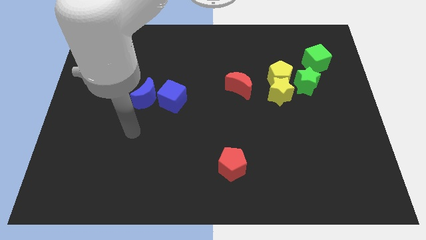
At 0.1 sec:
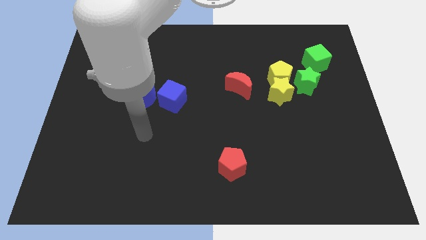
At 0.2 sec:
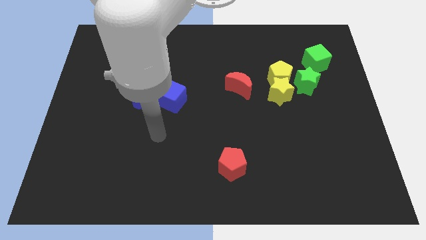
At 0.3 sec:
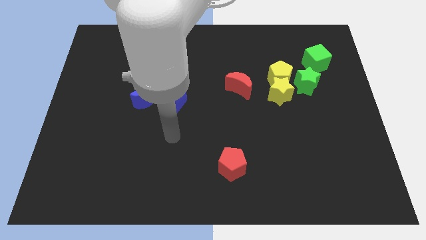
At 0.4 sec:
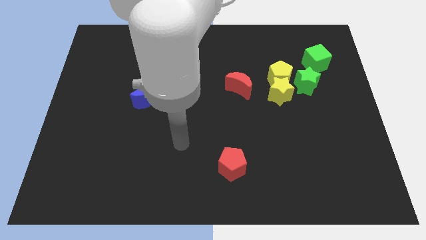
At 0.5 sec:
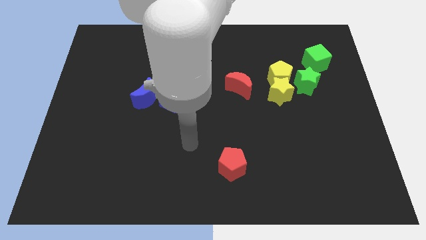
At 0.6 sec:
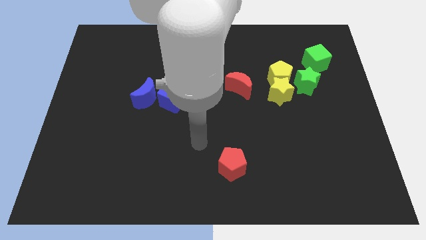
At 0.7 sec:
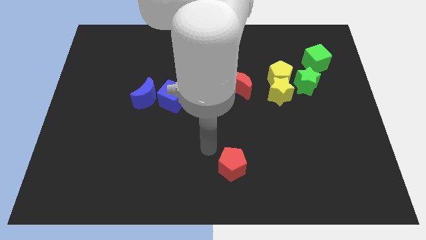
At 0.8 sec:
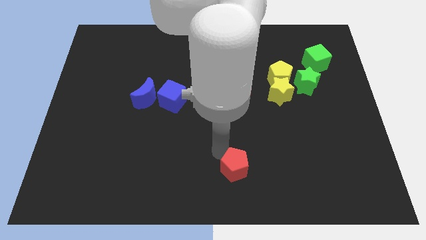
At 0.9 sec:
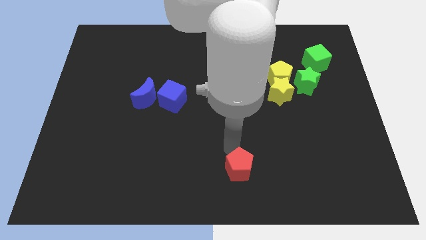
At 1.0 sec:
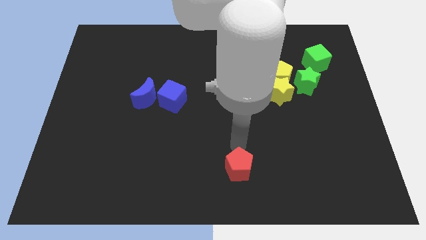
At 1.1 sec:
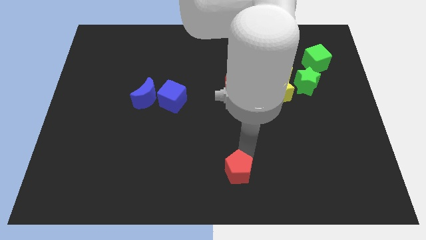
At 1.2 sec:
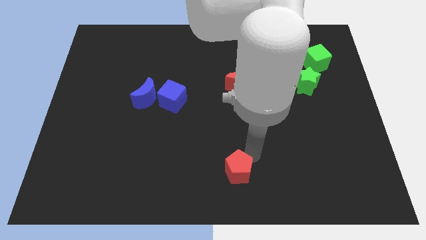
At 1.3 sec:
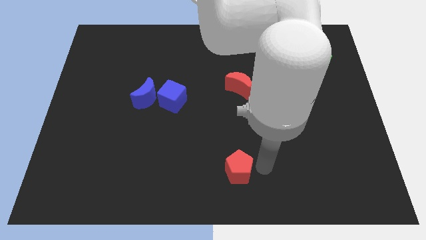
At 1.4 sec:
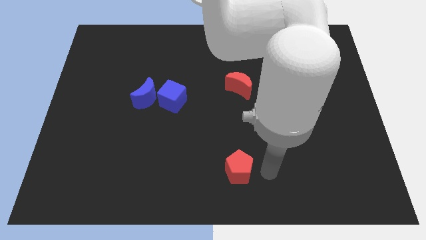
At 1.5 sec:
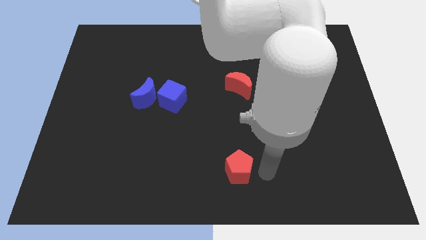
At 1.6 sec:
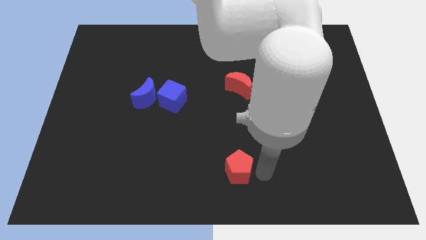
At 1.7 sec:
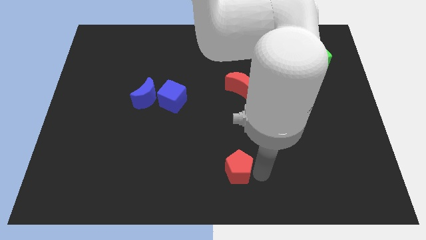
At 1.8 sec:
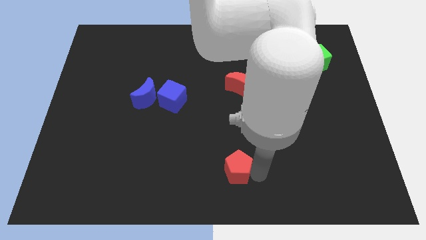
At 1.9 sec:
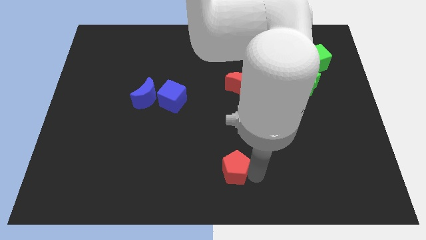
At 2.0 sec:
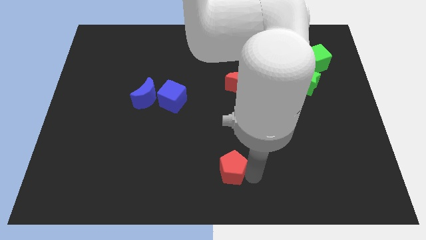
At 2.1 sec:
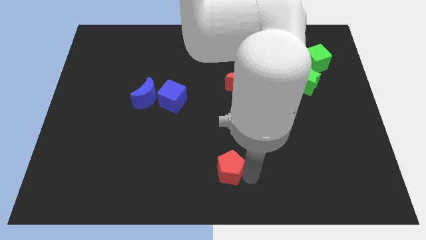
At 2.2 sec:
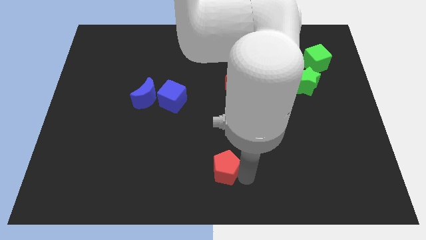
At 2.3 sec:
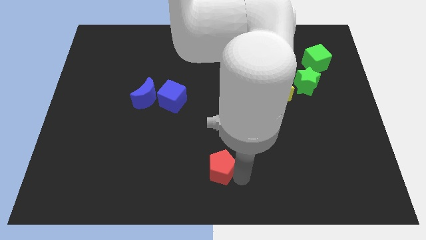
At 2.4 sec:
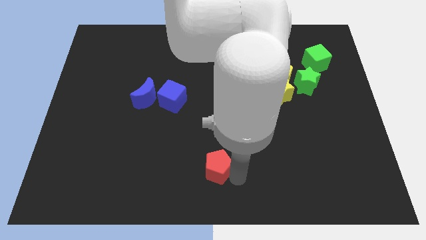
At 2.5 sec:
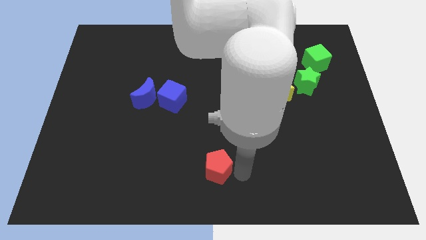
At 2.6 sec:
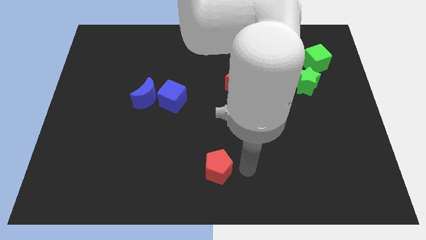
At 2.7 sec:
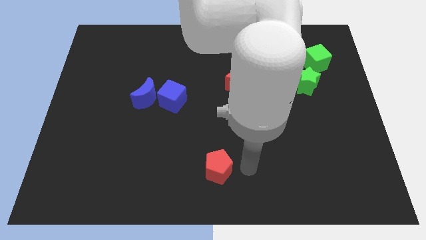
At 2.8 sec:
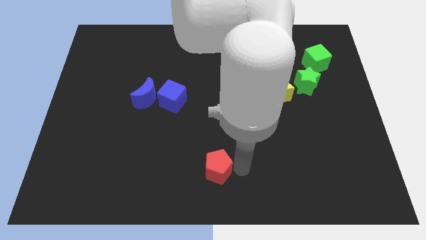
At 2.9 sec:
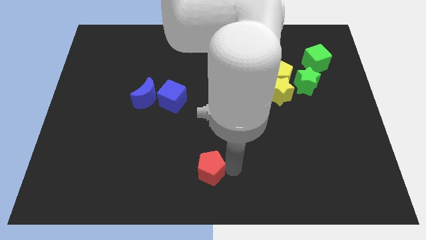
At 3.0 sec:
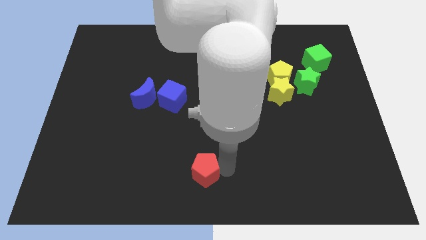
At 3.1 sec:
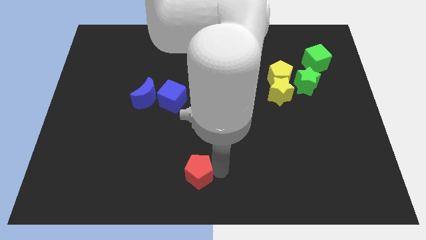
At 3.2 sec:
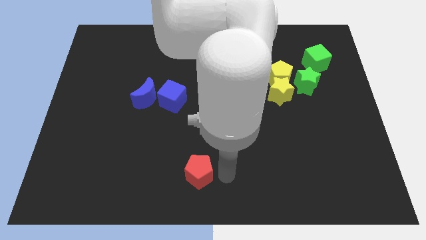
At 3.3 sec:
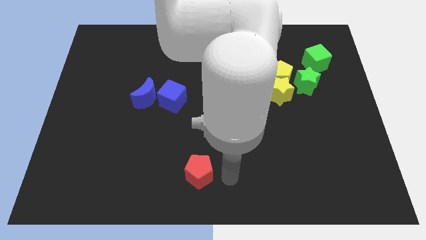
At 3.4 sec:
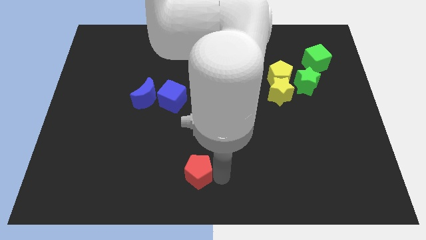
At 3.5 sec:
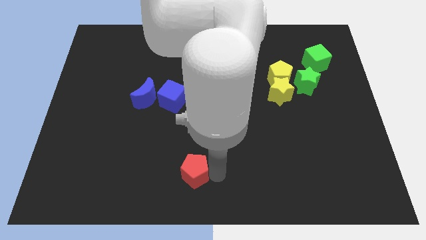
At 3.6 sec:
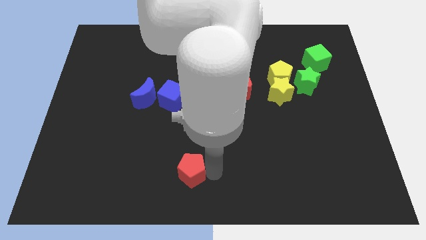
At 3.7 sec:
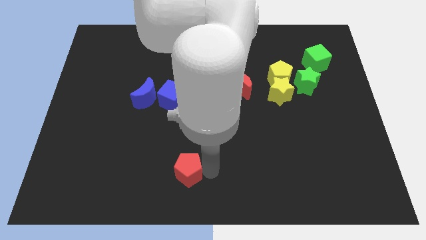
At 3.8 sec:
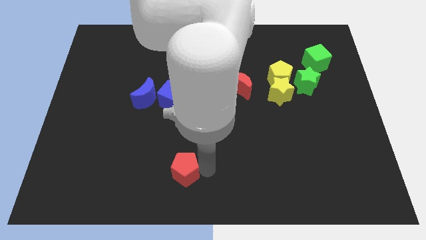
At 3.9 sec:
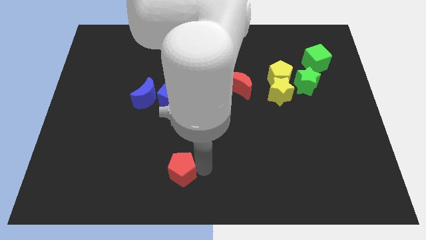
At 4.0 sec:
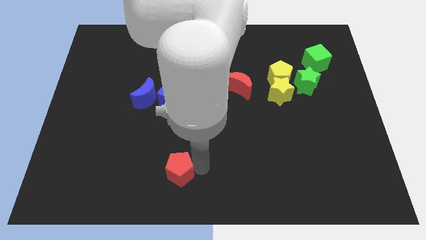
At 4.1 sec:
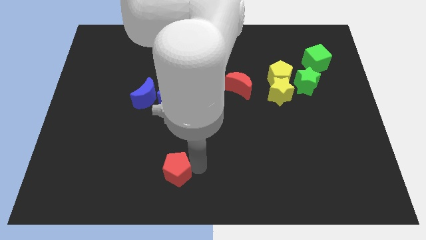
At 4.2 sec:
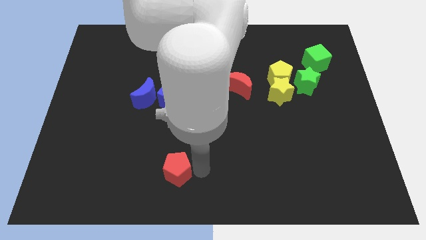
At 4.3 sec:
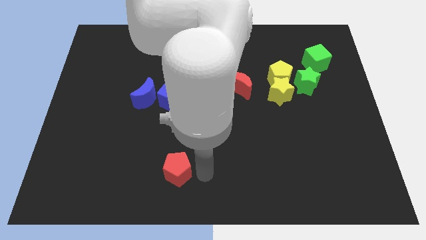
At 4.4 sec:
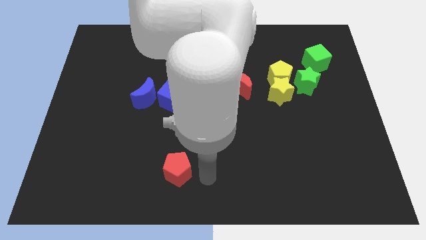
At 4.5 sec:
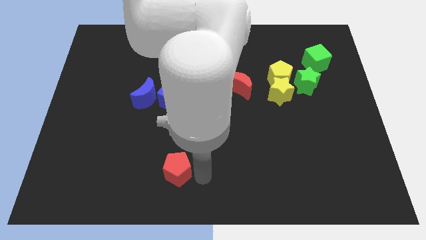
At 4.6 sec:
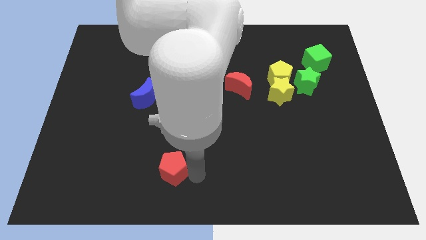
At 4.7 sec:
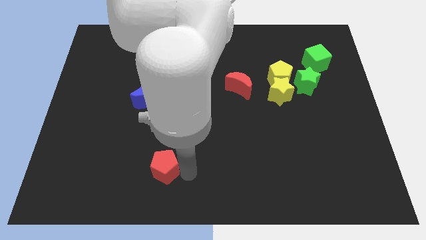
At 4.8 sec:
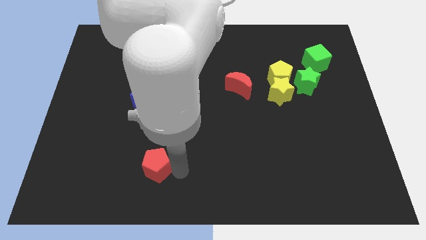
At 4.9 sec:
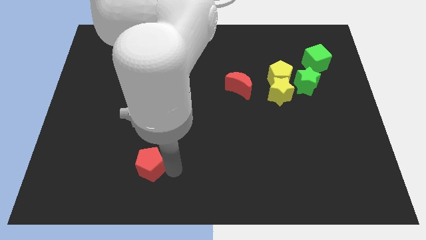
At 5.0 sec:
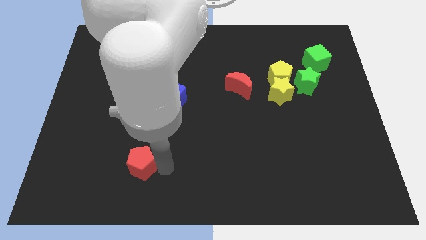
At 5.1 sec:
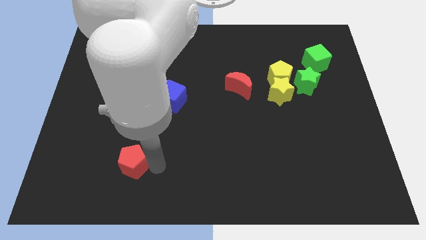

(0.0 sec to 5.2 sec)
slide the red pentagon left

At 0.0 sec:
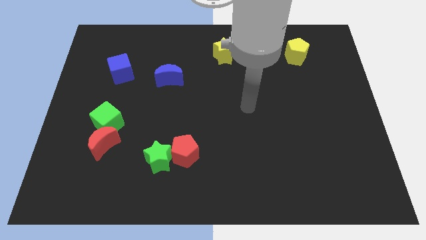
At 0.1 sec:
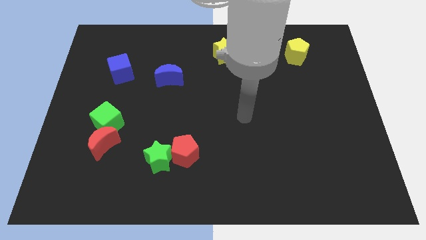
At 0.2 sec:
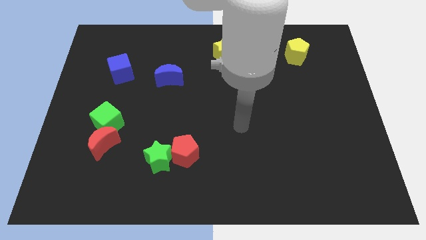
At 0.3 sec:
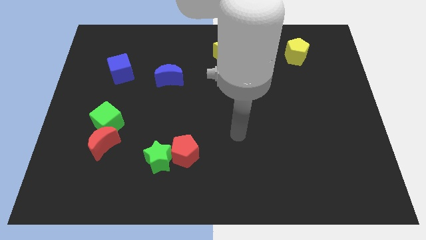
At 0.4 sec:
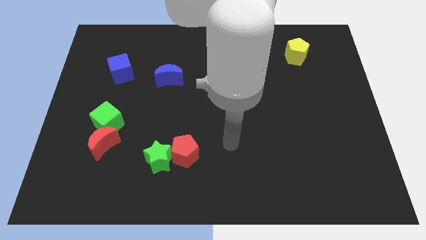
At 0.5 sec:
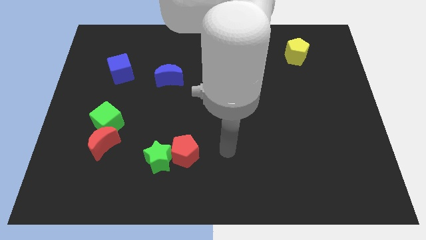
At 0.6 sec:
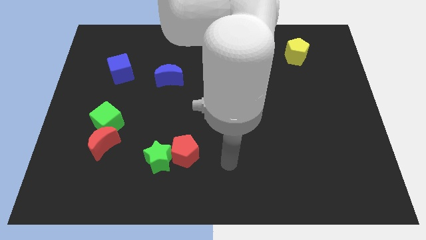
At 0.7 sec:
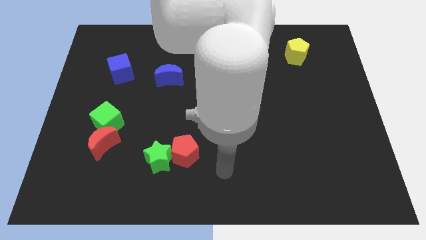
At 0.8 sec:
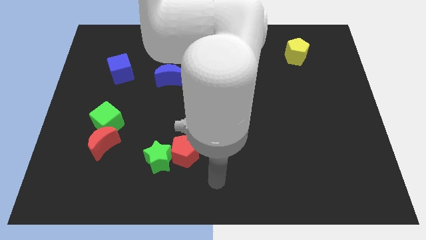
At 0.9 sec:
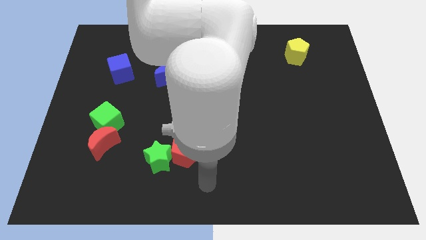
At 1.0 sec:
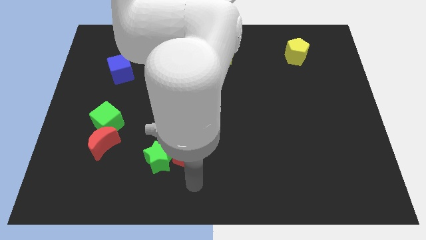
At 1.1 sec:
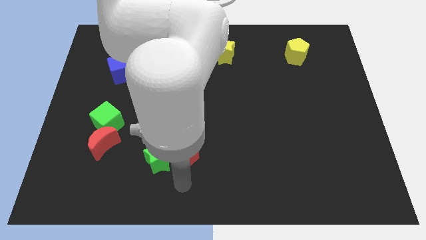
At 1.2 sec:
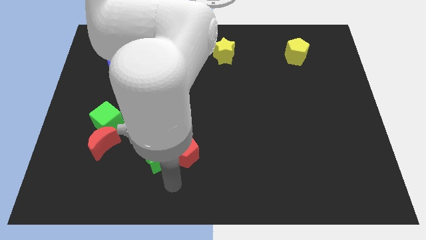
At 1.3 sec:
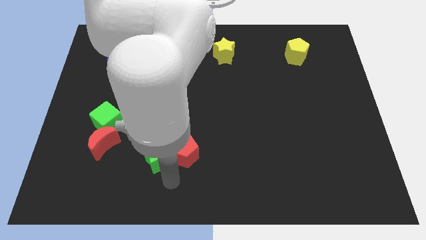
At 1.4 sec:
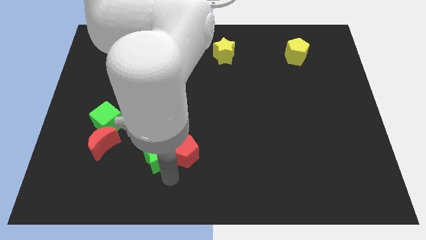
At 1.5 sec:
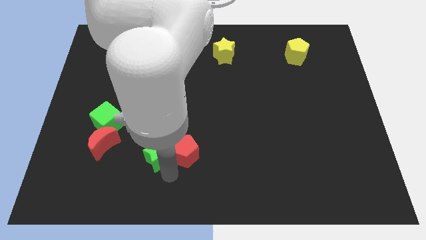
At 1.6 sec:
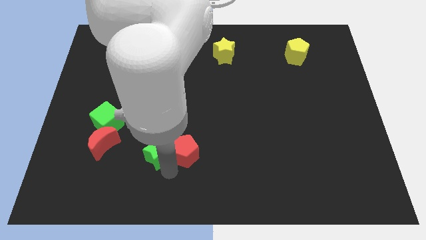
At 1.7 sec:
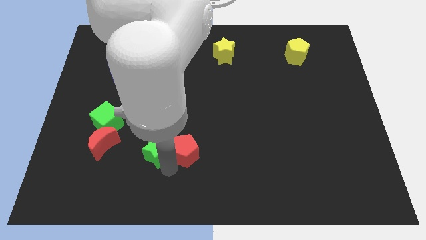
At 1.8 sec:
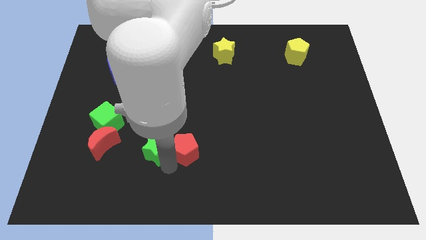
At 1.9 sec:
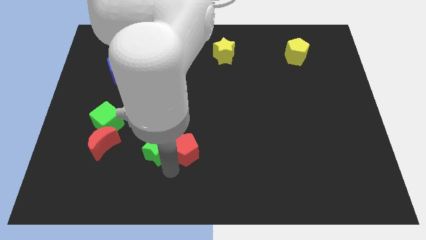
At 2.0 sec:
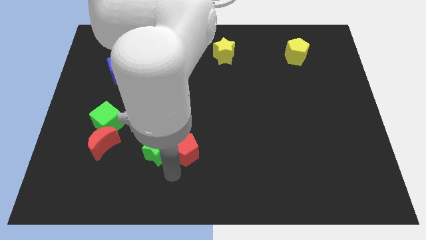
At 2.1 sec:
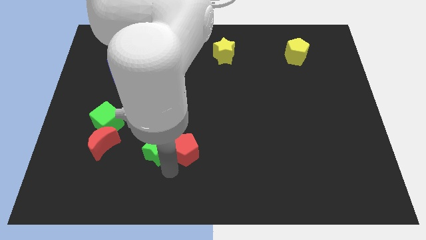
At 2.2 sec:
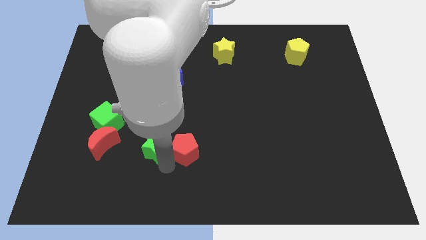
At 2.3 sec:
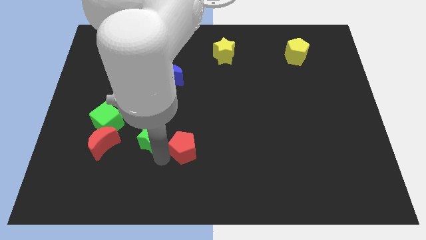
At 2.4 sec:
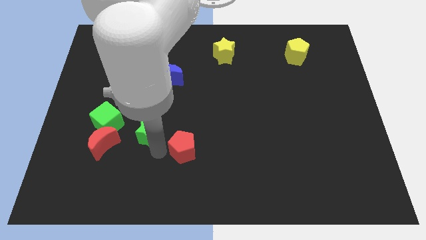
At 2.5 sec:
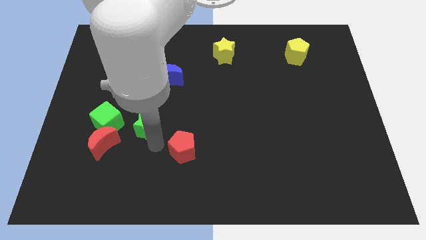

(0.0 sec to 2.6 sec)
move the green star somewhat up and left
